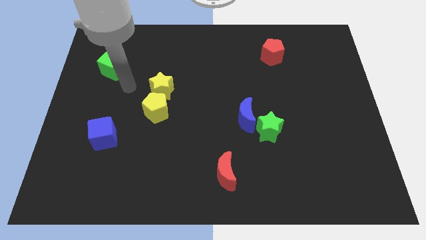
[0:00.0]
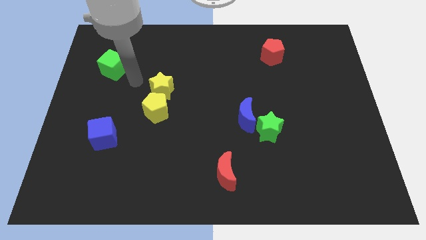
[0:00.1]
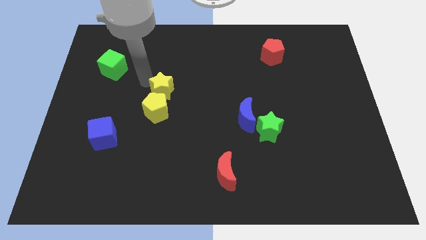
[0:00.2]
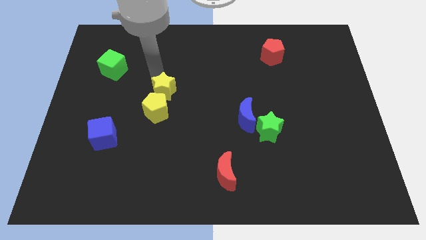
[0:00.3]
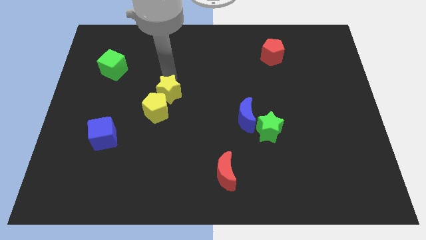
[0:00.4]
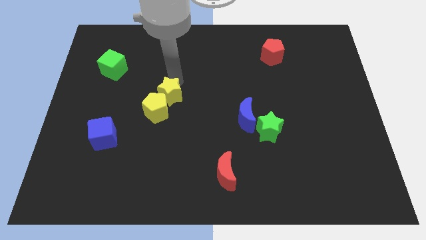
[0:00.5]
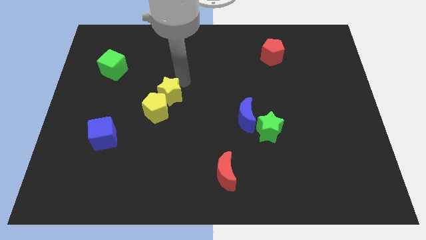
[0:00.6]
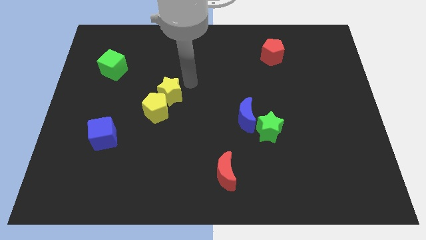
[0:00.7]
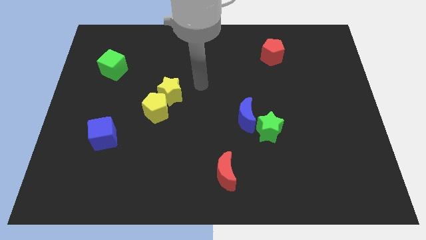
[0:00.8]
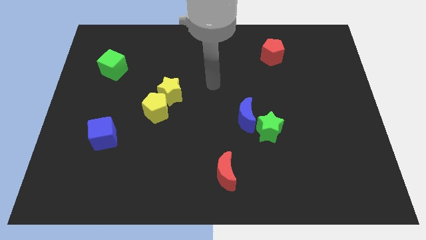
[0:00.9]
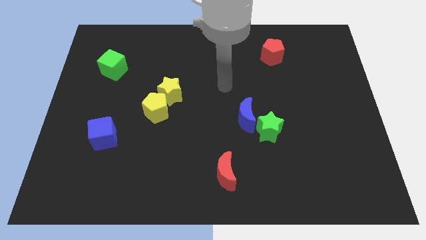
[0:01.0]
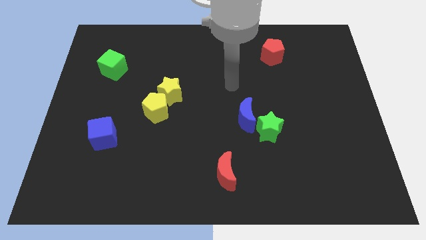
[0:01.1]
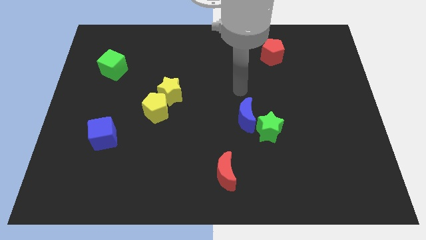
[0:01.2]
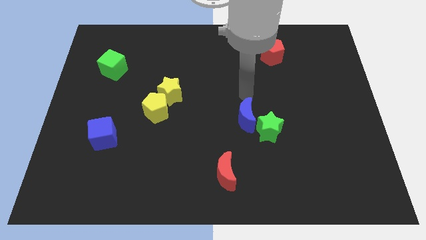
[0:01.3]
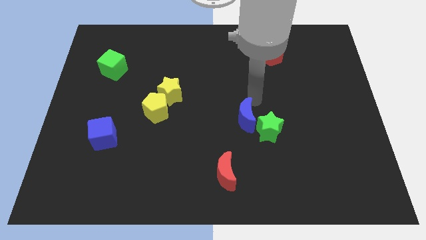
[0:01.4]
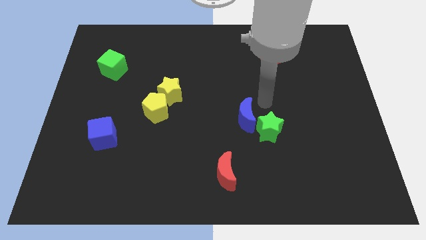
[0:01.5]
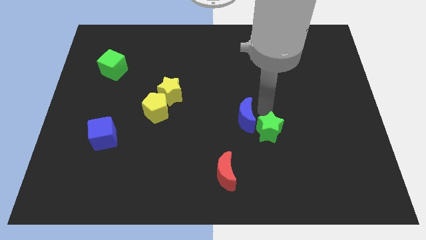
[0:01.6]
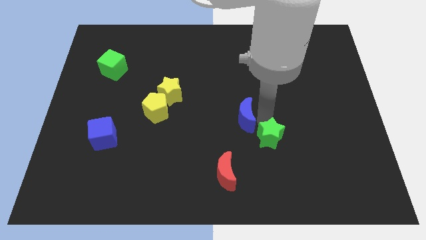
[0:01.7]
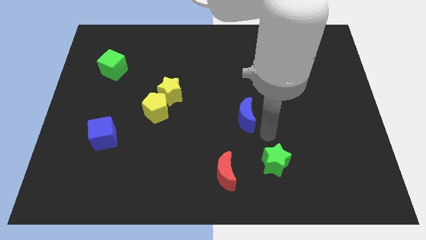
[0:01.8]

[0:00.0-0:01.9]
move the blue moon away from the green star

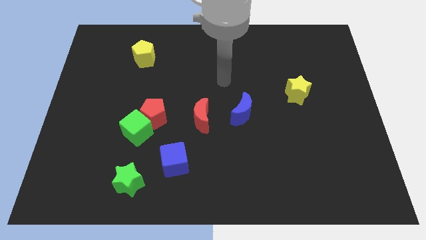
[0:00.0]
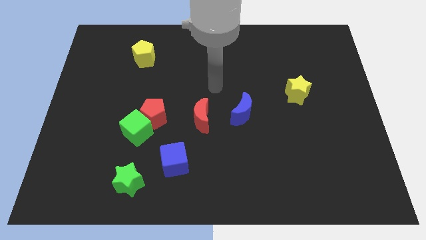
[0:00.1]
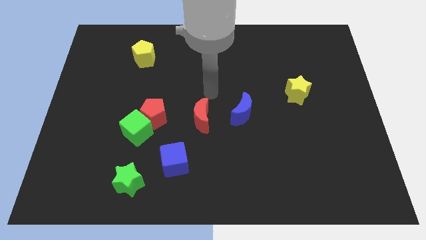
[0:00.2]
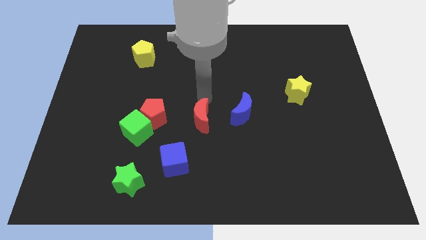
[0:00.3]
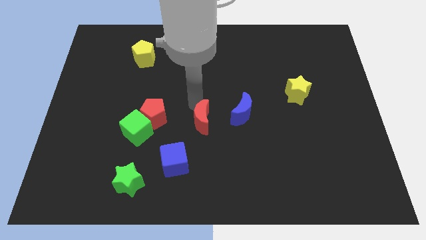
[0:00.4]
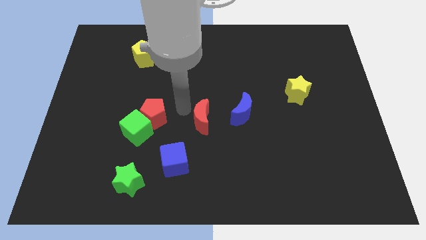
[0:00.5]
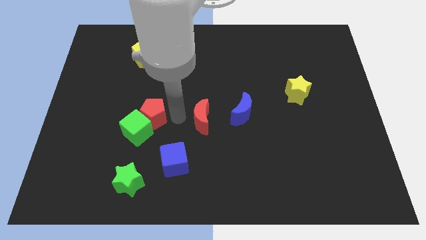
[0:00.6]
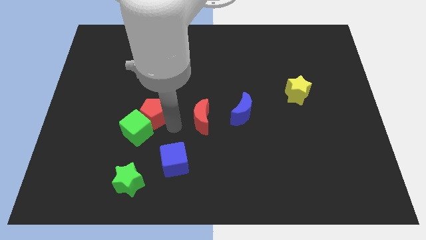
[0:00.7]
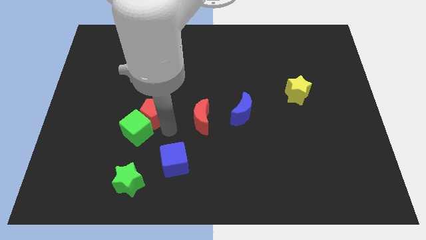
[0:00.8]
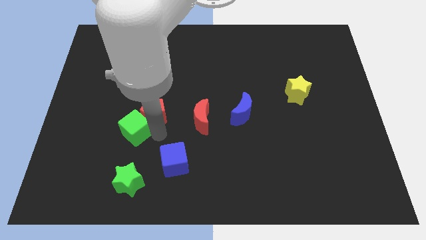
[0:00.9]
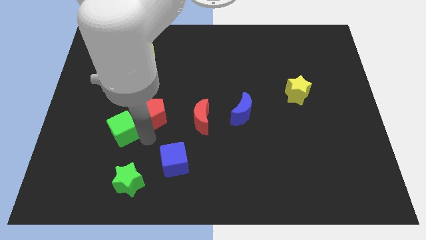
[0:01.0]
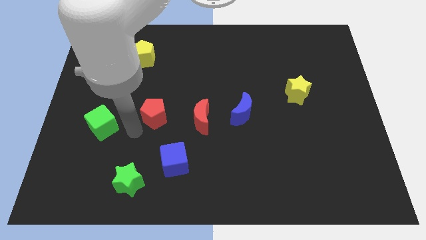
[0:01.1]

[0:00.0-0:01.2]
separate the red pentagon from the green cube

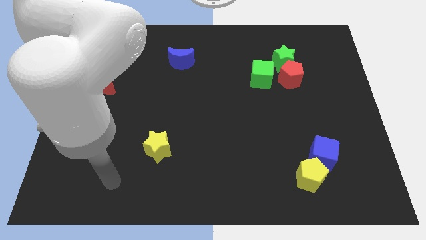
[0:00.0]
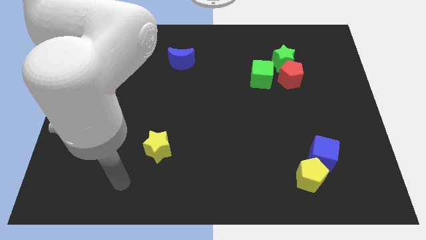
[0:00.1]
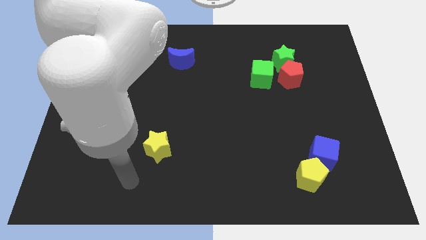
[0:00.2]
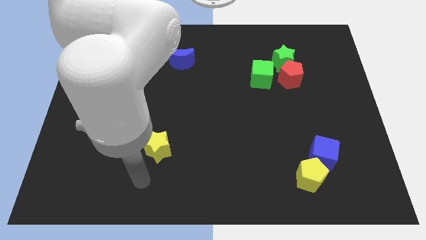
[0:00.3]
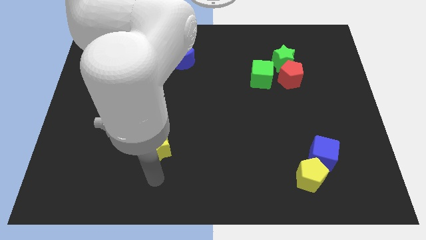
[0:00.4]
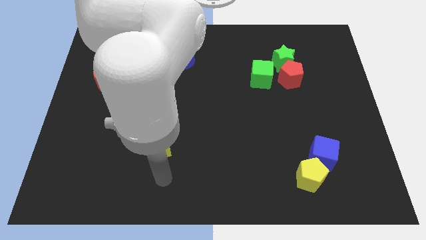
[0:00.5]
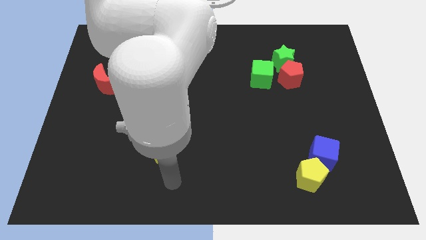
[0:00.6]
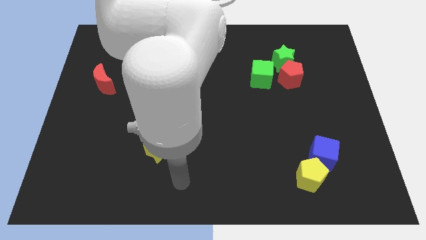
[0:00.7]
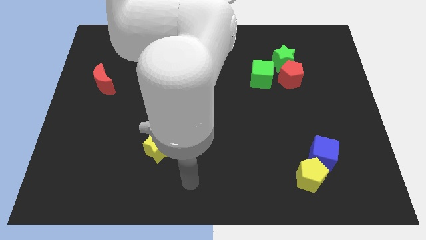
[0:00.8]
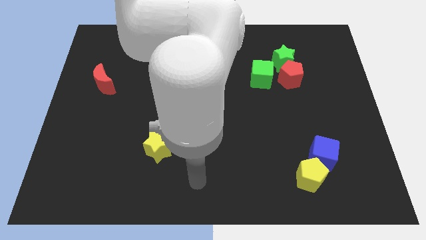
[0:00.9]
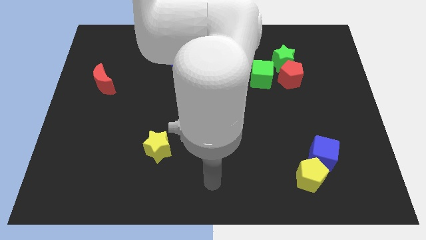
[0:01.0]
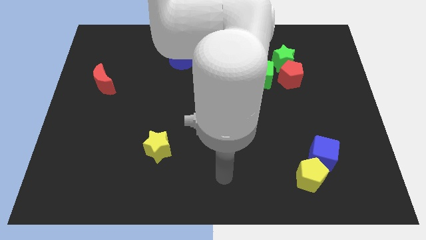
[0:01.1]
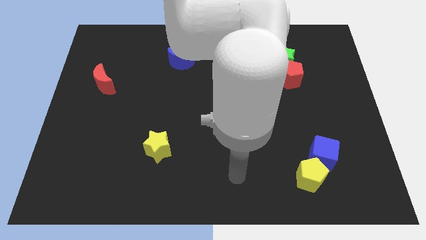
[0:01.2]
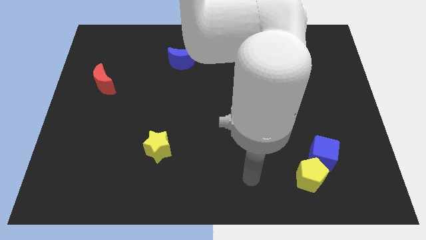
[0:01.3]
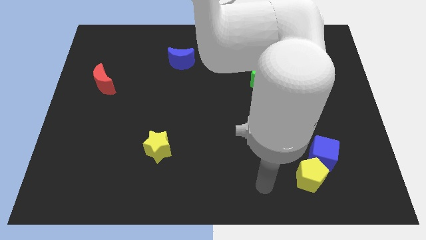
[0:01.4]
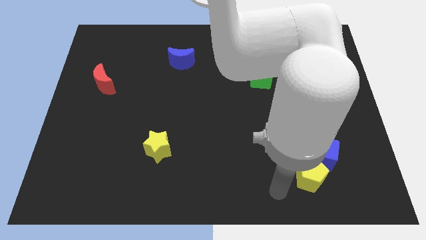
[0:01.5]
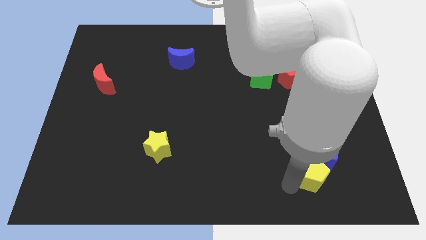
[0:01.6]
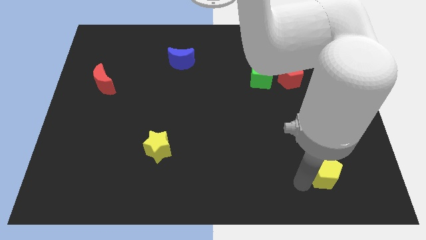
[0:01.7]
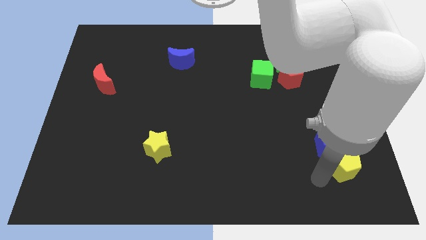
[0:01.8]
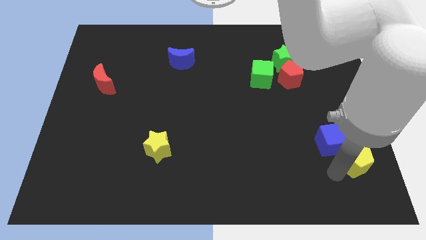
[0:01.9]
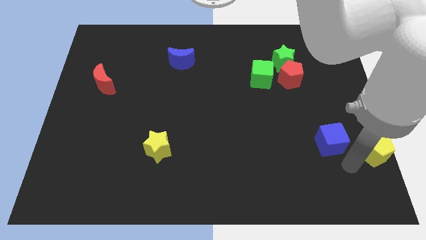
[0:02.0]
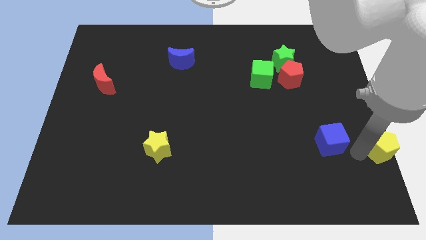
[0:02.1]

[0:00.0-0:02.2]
move the blue cube away from the yellow pentagon

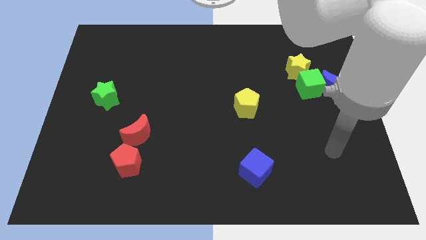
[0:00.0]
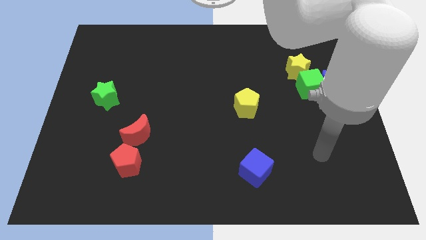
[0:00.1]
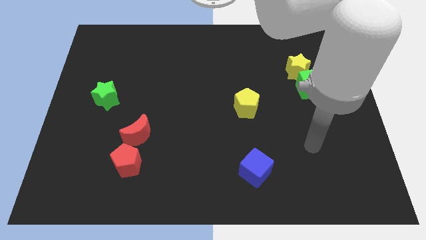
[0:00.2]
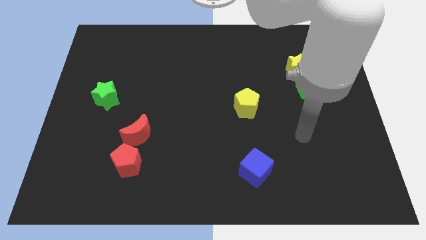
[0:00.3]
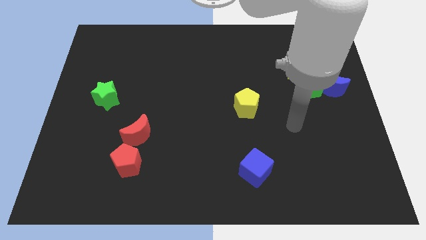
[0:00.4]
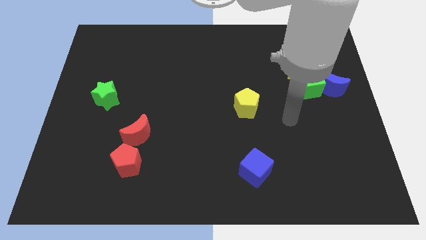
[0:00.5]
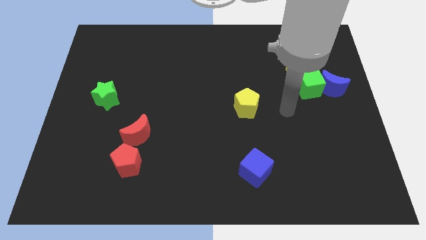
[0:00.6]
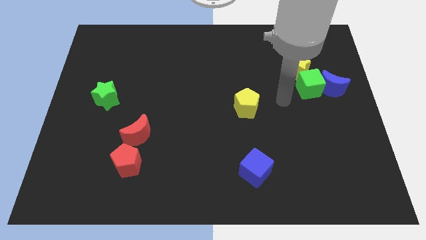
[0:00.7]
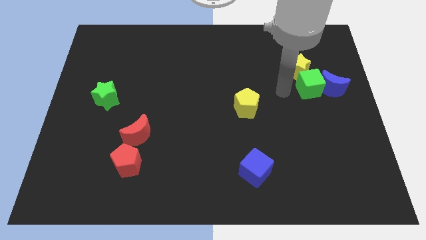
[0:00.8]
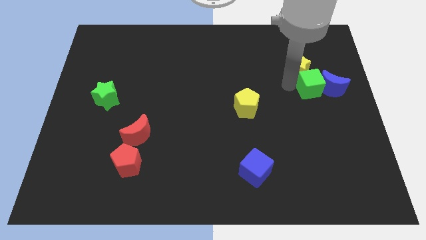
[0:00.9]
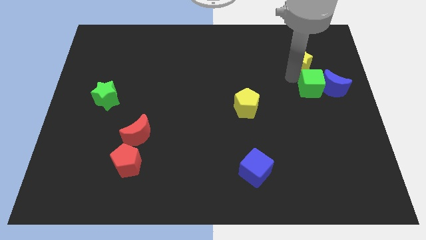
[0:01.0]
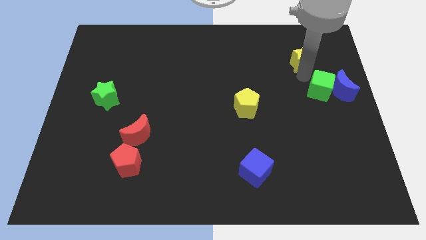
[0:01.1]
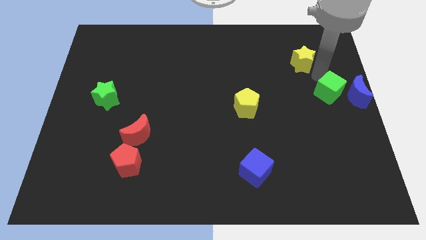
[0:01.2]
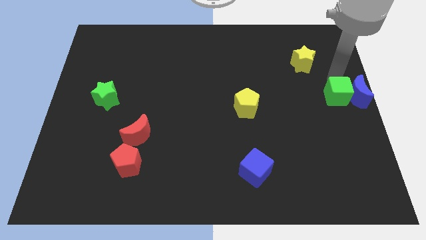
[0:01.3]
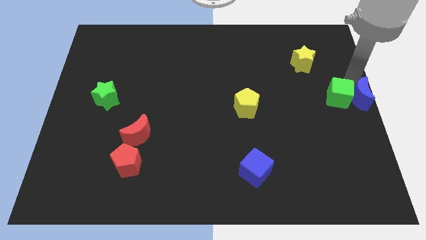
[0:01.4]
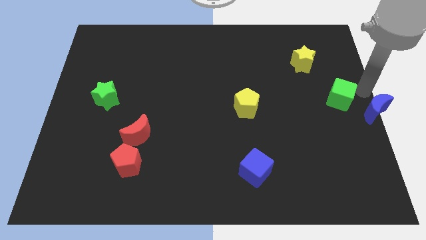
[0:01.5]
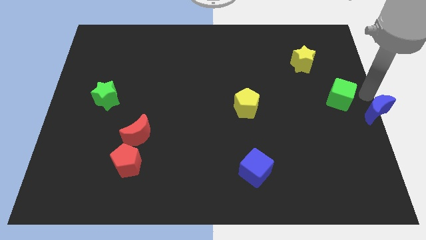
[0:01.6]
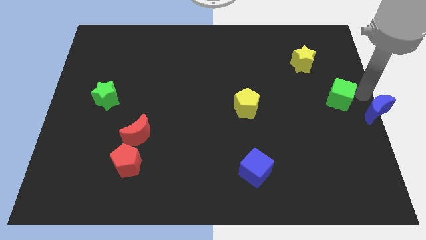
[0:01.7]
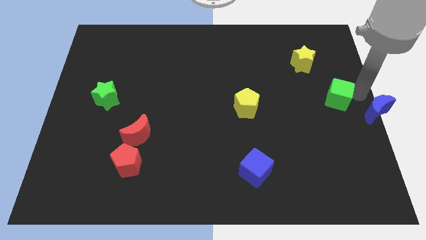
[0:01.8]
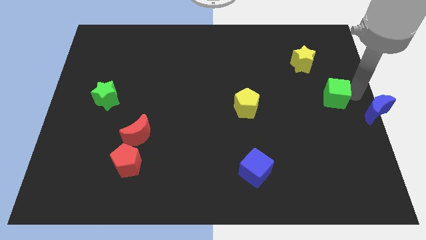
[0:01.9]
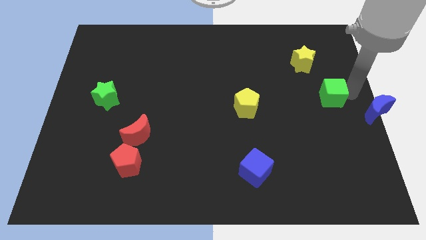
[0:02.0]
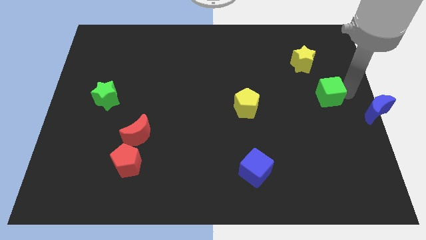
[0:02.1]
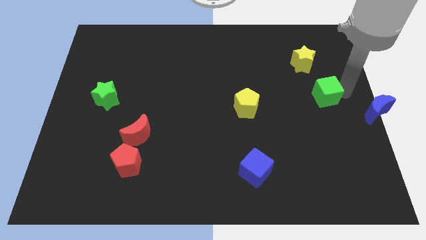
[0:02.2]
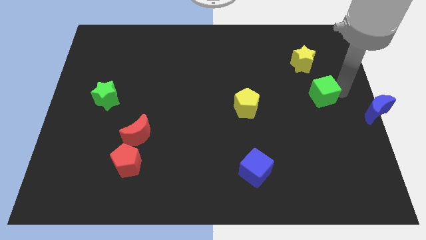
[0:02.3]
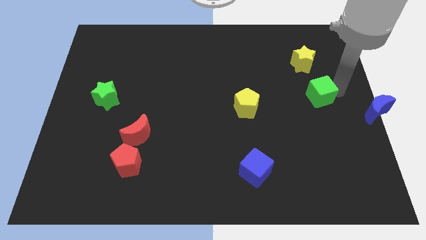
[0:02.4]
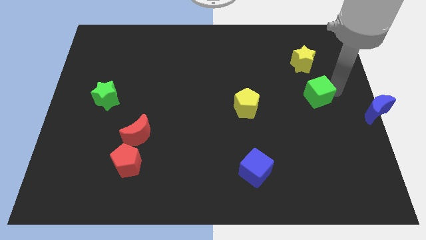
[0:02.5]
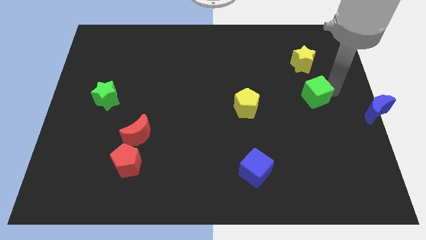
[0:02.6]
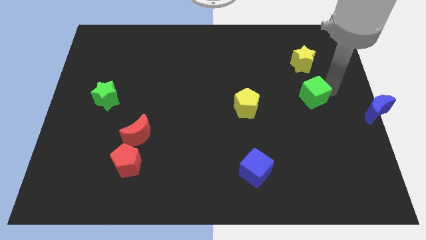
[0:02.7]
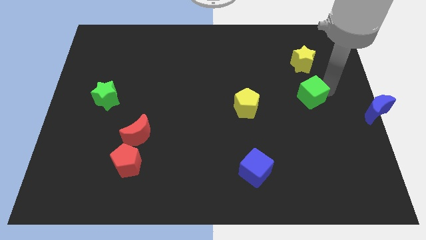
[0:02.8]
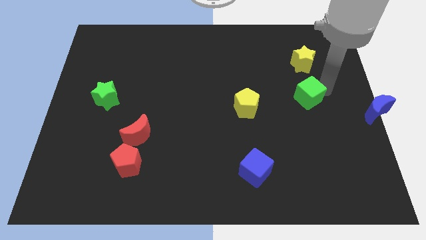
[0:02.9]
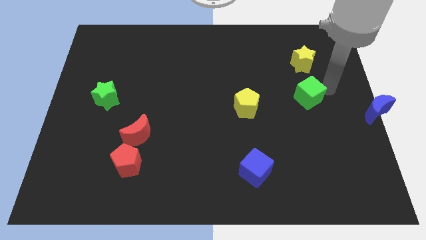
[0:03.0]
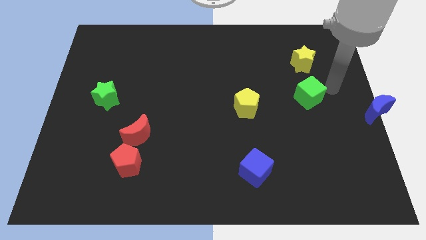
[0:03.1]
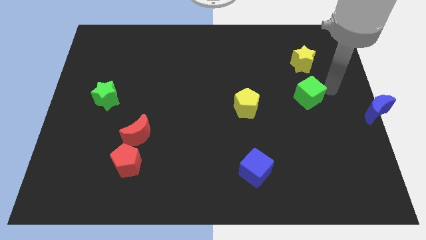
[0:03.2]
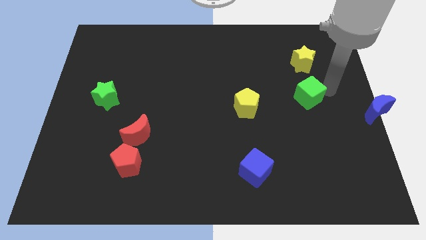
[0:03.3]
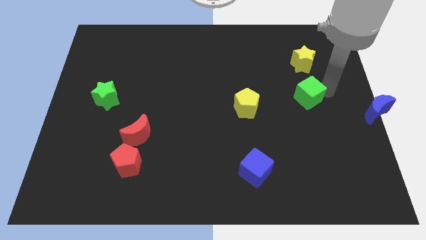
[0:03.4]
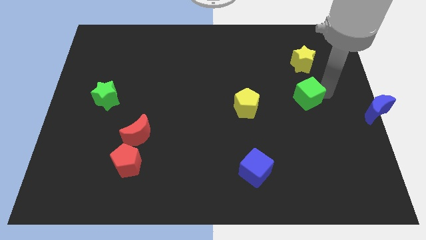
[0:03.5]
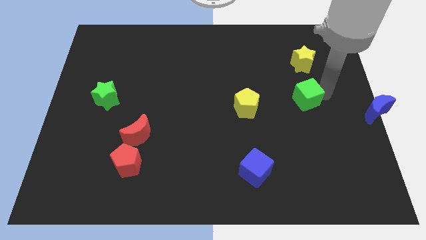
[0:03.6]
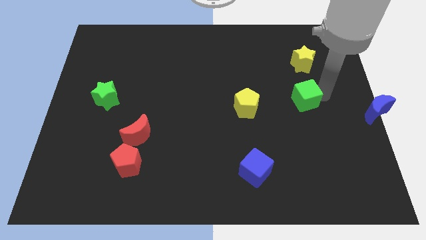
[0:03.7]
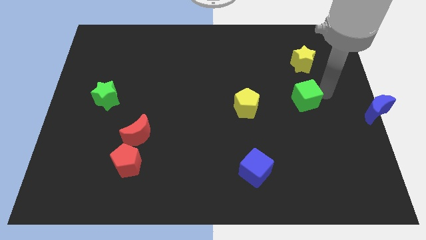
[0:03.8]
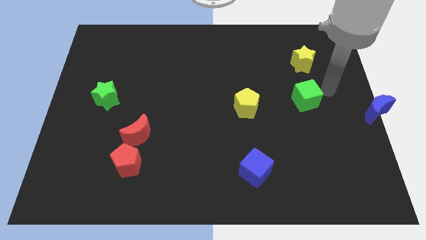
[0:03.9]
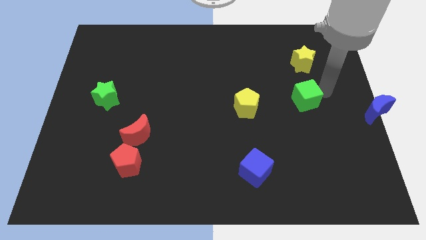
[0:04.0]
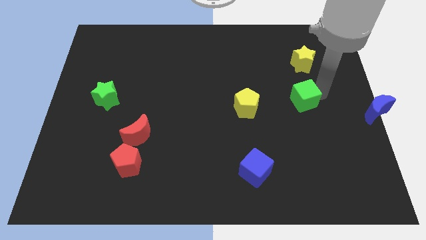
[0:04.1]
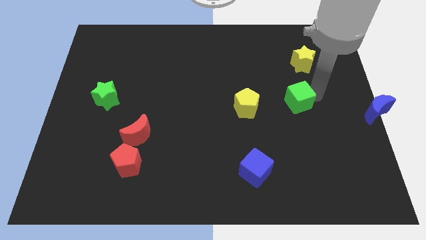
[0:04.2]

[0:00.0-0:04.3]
separate the green cube from the blue moon and yellow star
